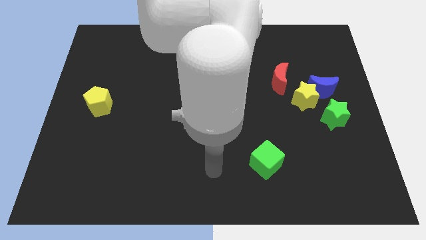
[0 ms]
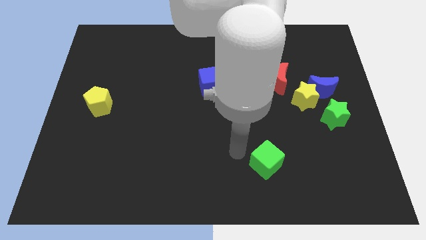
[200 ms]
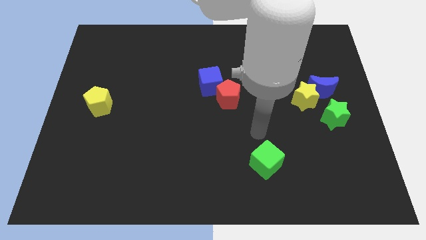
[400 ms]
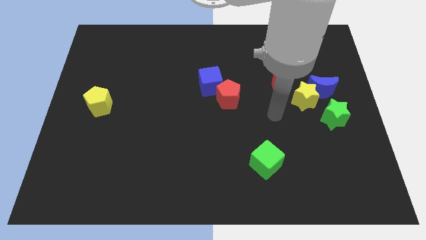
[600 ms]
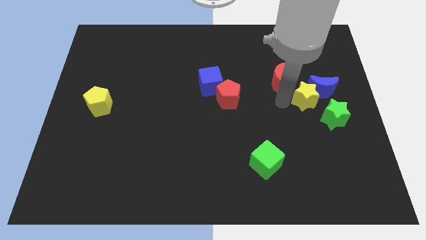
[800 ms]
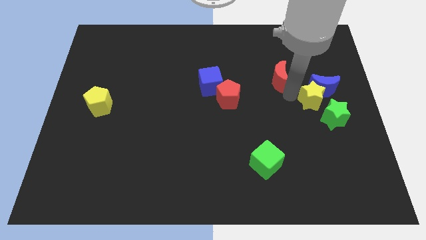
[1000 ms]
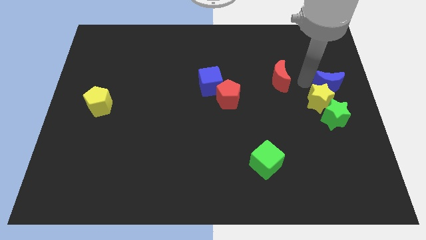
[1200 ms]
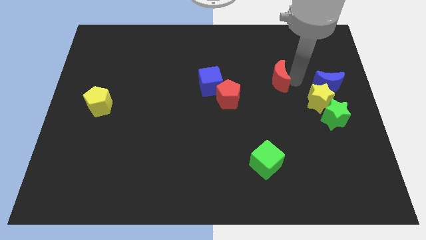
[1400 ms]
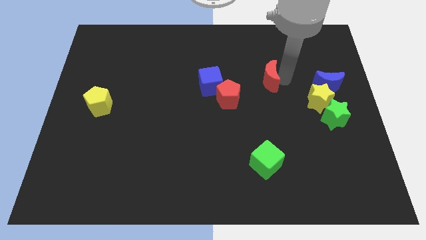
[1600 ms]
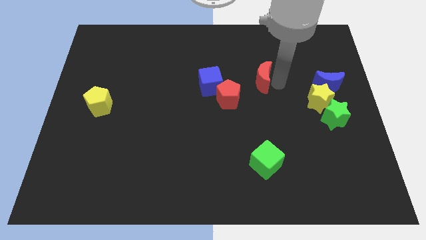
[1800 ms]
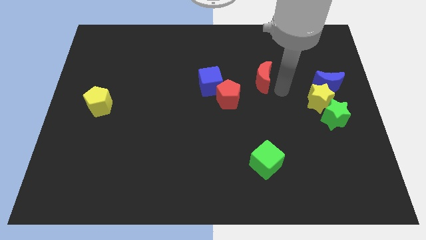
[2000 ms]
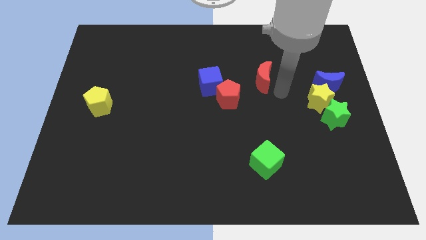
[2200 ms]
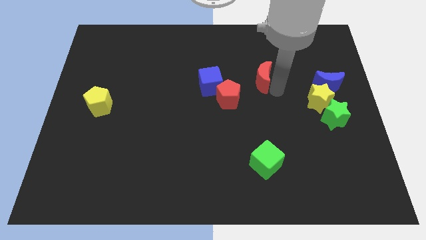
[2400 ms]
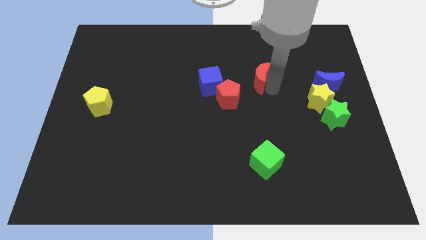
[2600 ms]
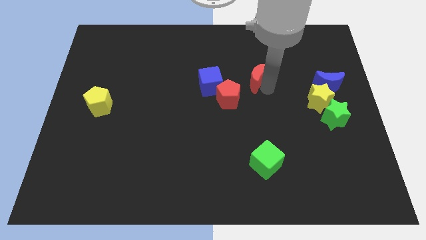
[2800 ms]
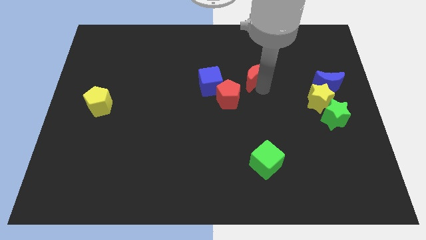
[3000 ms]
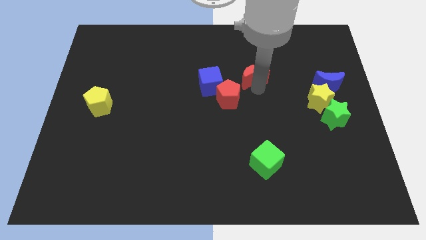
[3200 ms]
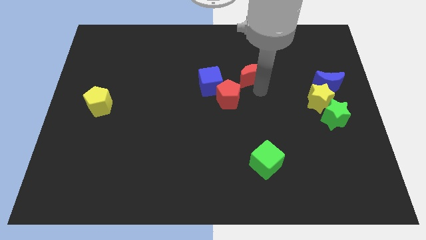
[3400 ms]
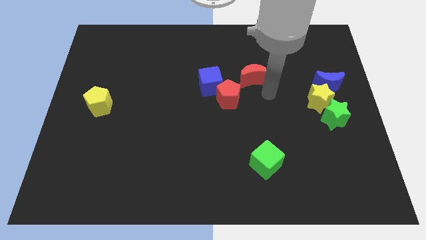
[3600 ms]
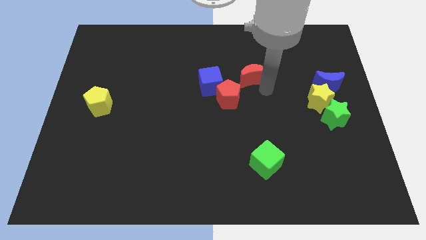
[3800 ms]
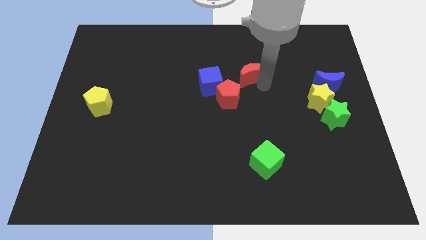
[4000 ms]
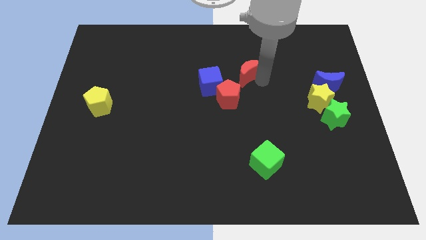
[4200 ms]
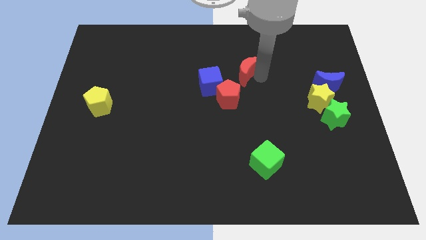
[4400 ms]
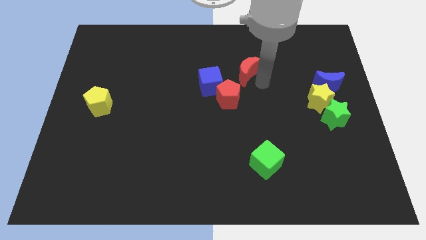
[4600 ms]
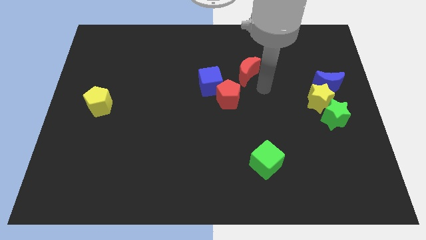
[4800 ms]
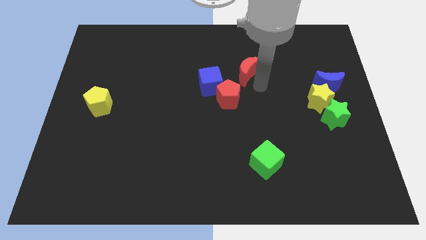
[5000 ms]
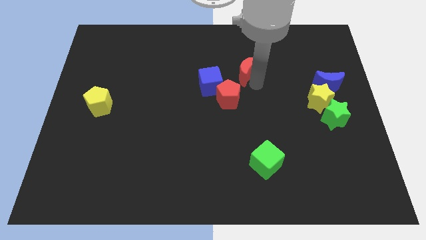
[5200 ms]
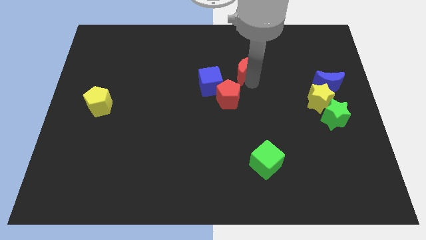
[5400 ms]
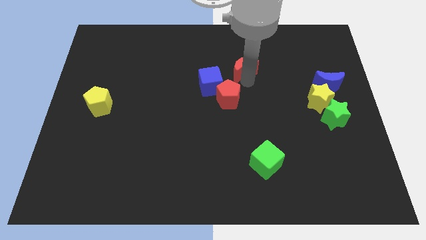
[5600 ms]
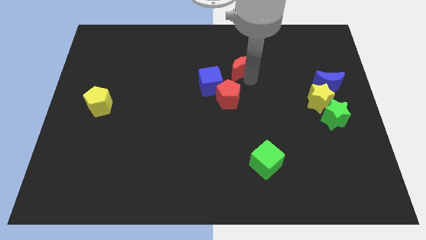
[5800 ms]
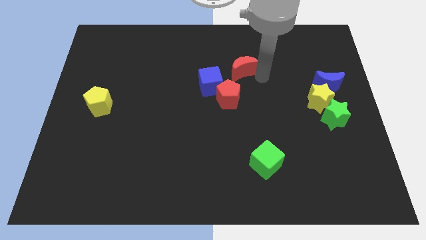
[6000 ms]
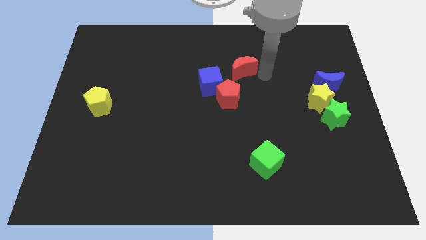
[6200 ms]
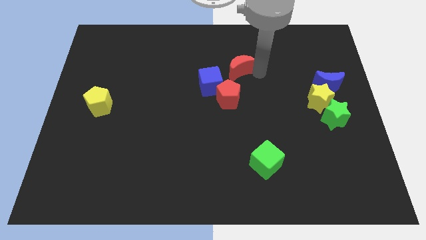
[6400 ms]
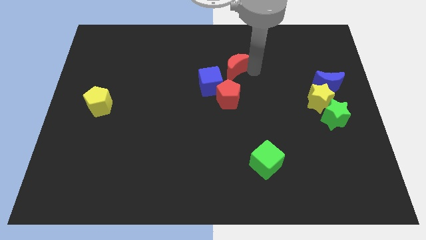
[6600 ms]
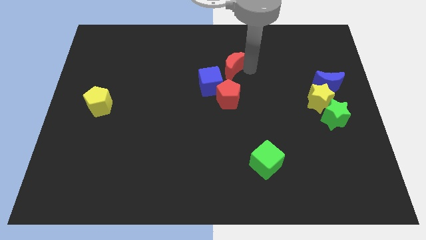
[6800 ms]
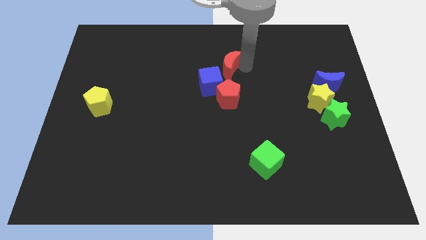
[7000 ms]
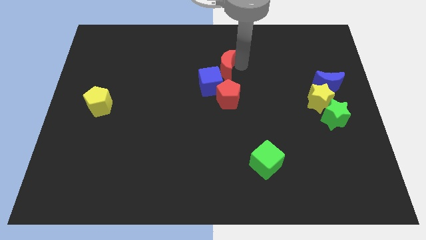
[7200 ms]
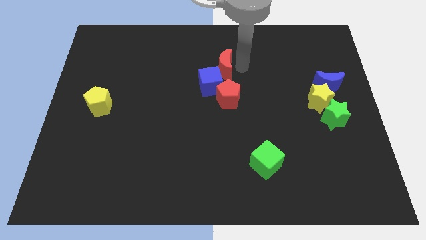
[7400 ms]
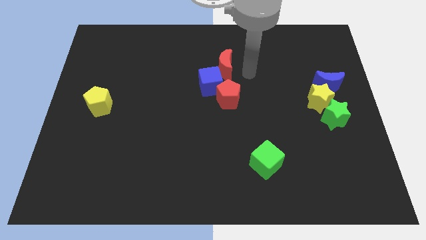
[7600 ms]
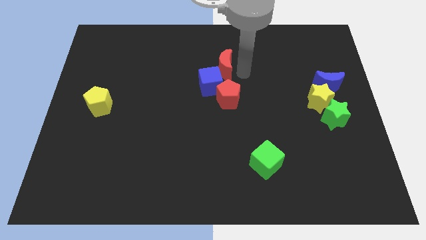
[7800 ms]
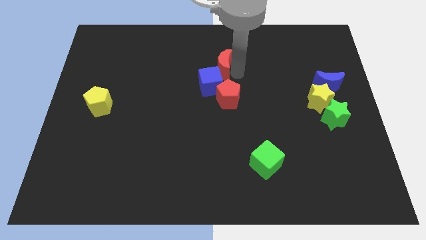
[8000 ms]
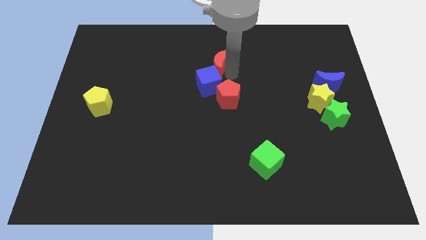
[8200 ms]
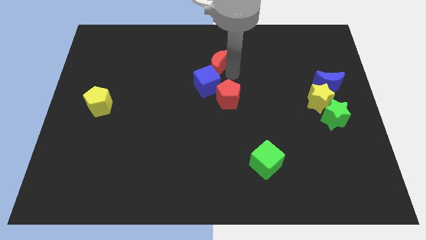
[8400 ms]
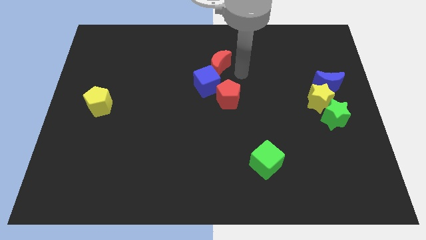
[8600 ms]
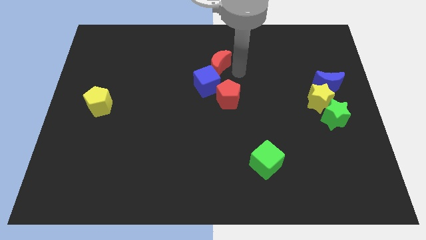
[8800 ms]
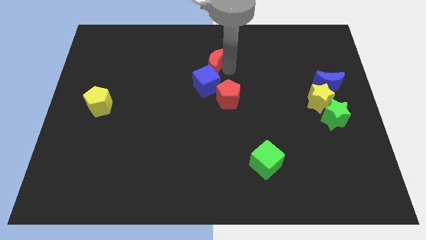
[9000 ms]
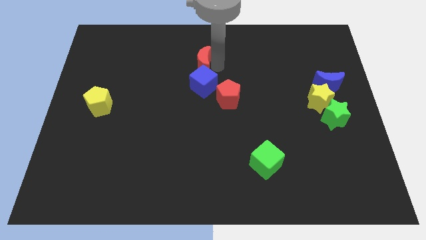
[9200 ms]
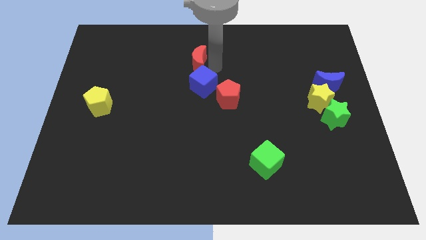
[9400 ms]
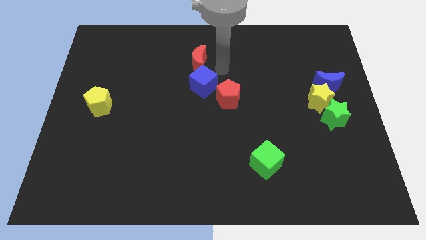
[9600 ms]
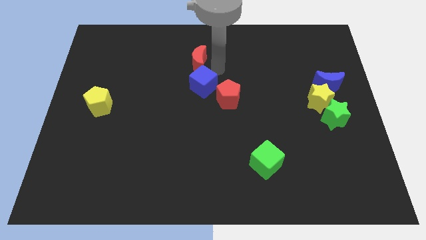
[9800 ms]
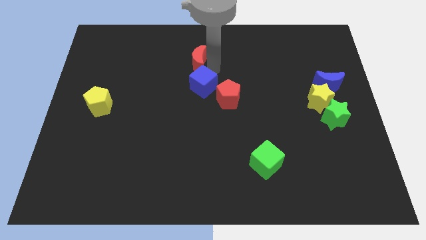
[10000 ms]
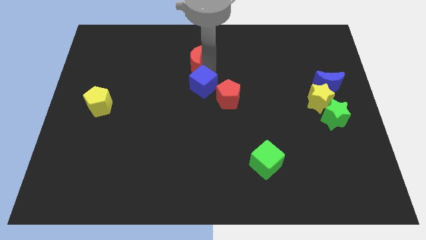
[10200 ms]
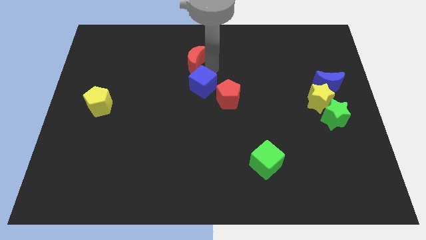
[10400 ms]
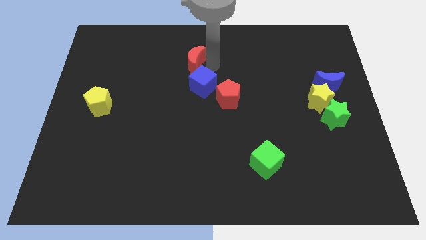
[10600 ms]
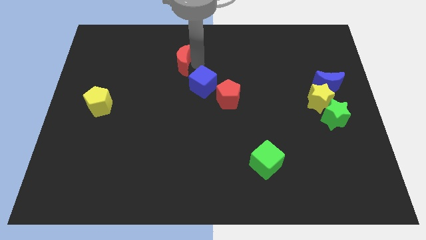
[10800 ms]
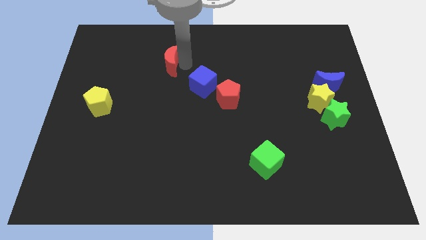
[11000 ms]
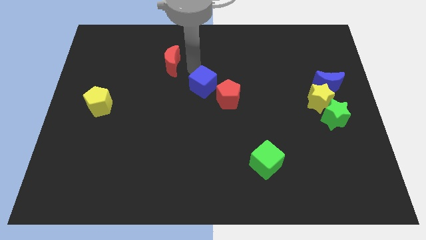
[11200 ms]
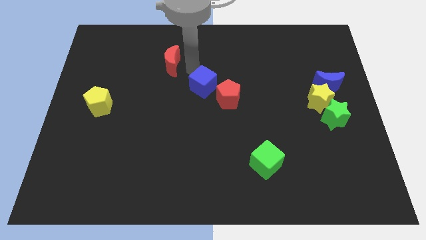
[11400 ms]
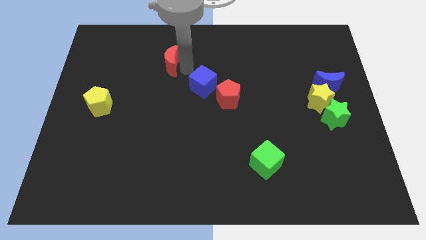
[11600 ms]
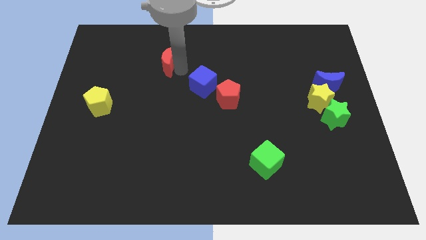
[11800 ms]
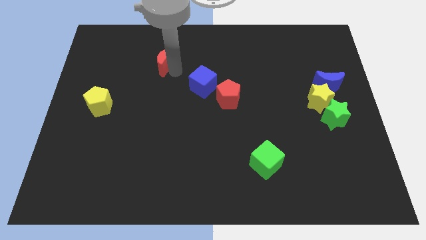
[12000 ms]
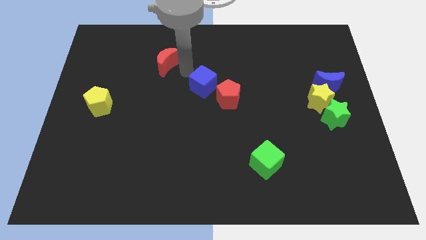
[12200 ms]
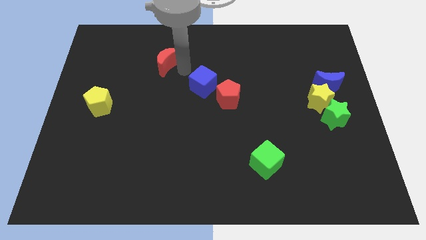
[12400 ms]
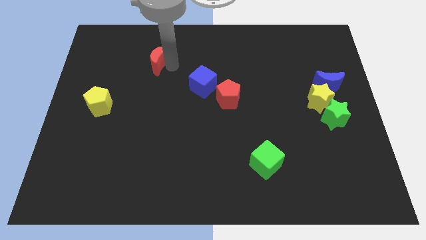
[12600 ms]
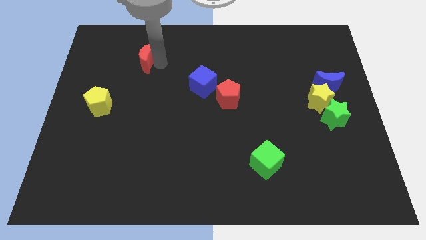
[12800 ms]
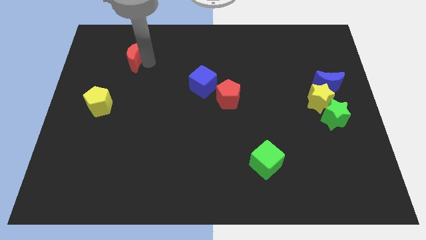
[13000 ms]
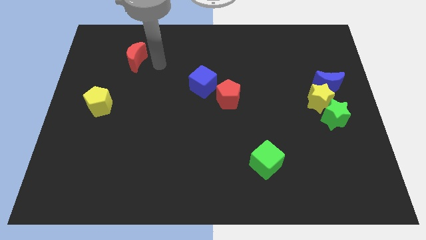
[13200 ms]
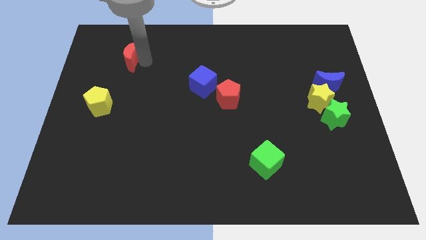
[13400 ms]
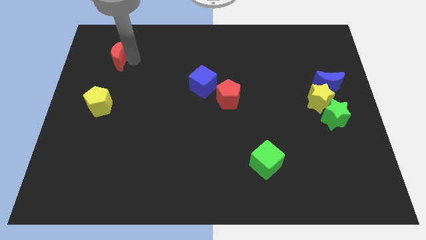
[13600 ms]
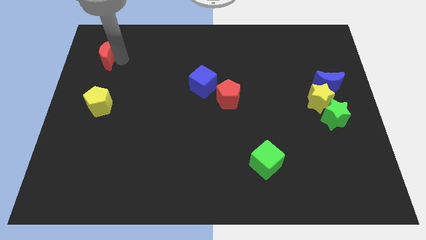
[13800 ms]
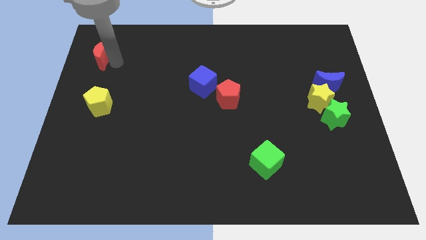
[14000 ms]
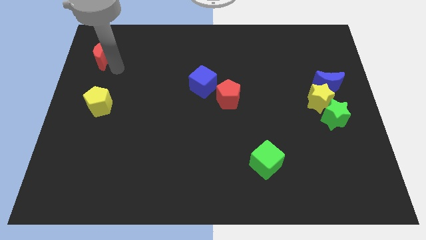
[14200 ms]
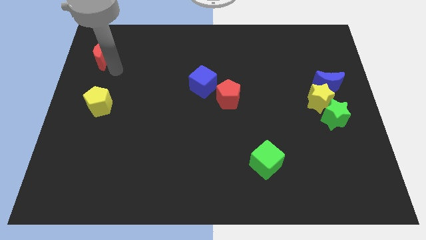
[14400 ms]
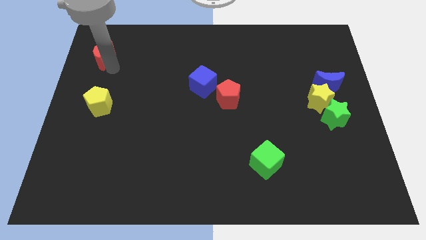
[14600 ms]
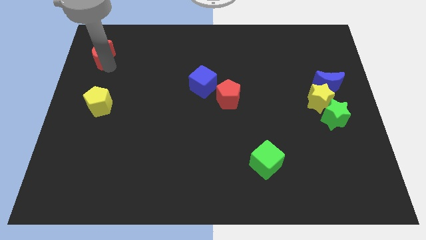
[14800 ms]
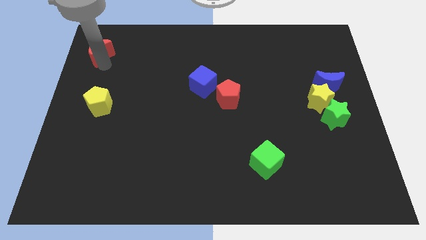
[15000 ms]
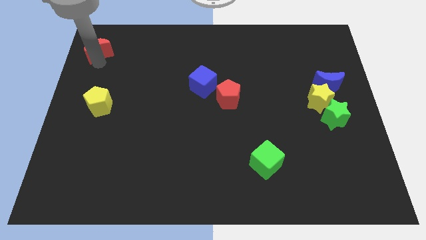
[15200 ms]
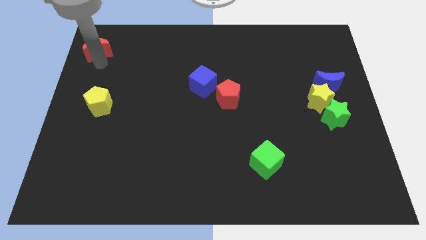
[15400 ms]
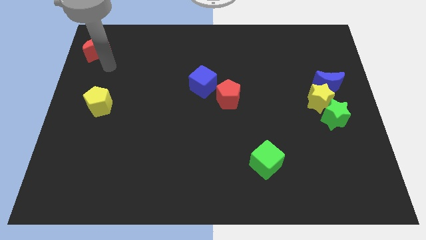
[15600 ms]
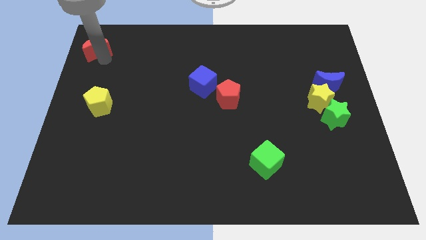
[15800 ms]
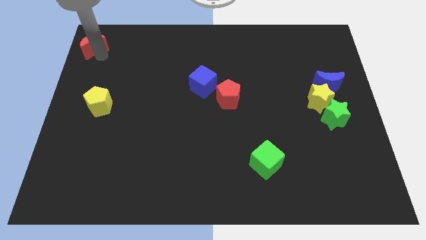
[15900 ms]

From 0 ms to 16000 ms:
move the red moon to the upper left corner
